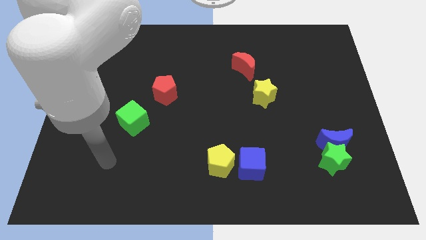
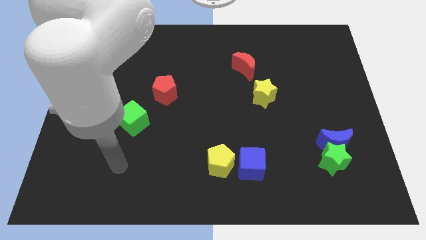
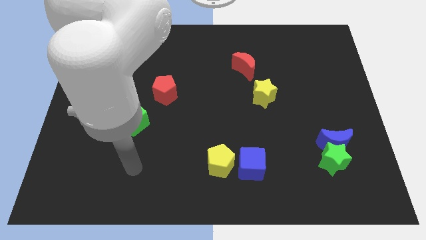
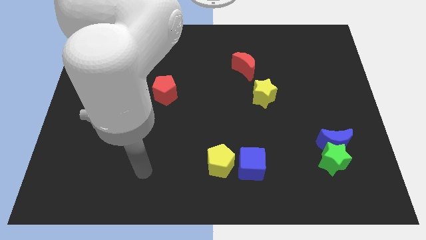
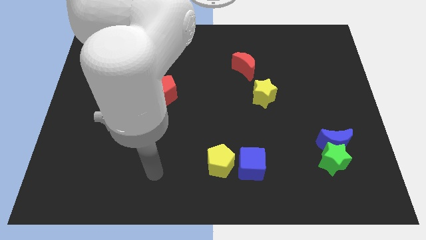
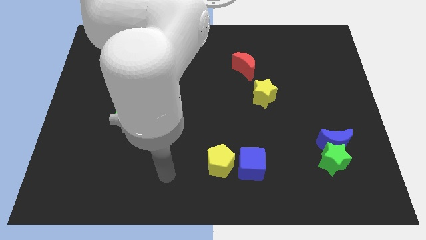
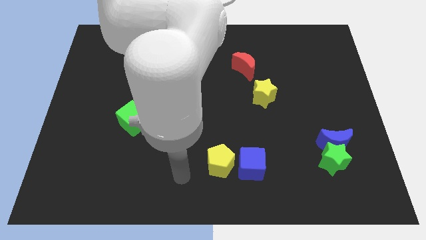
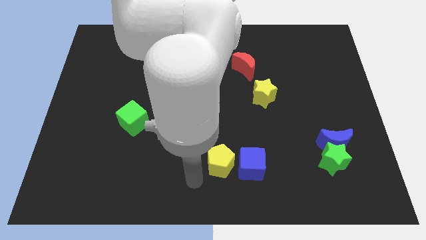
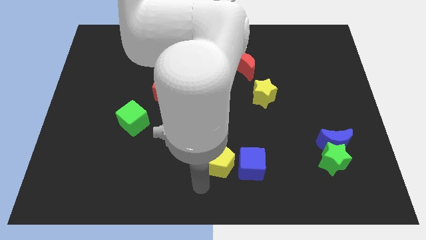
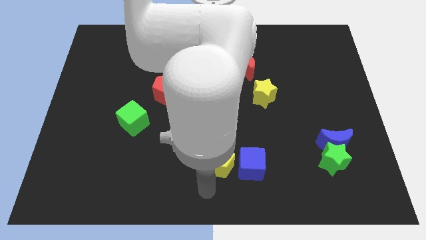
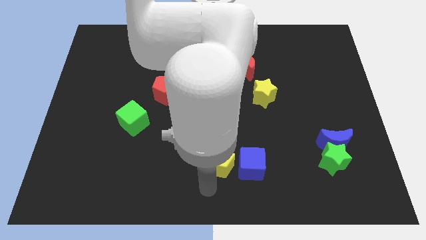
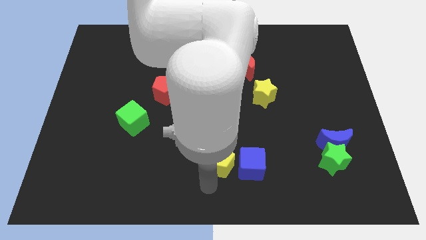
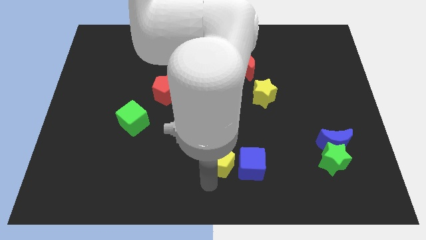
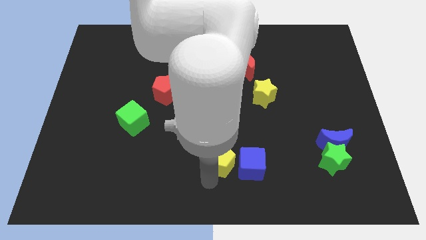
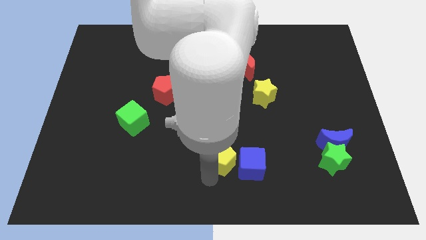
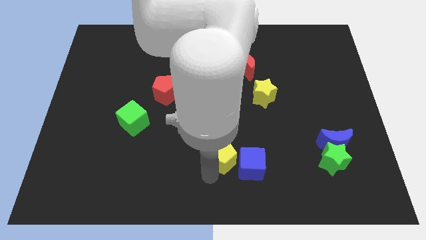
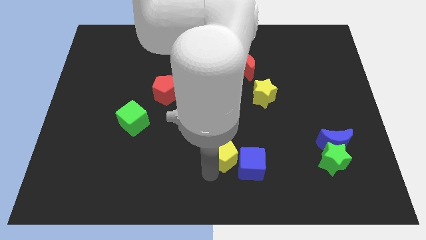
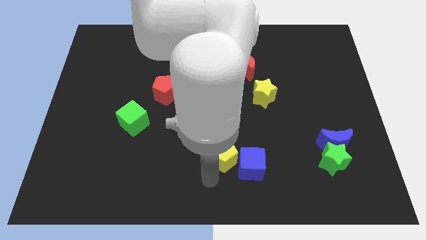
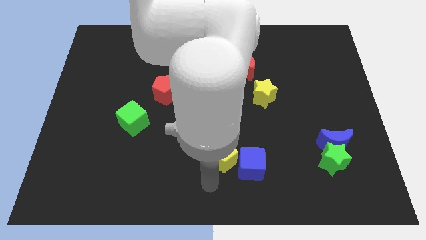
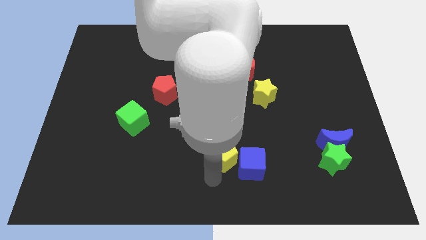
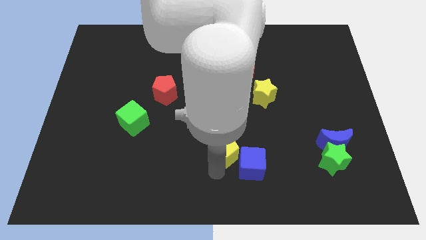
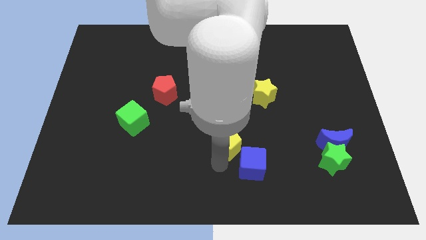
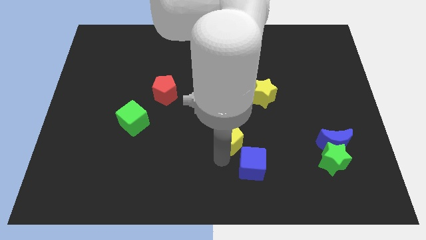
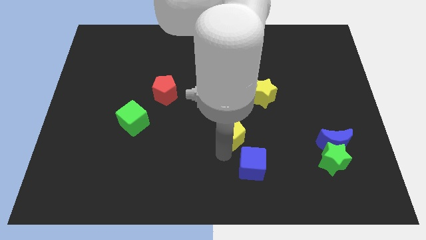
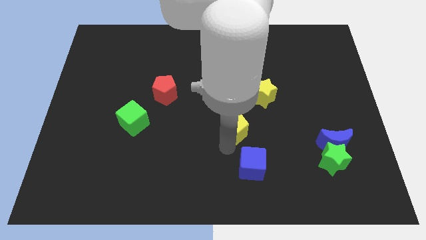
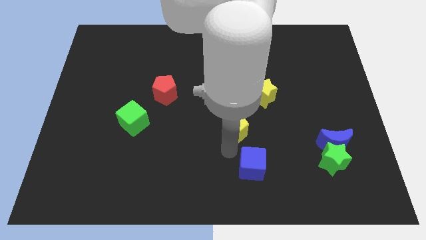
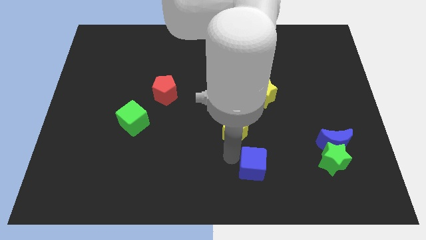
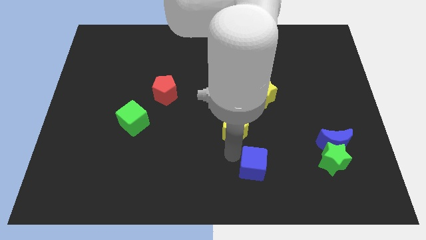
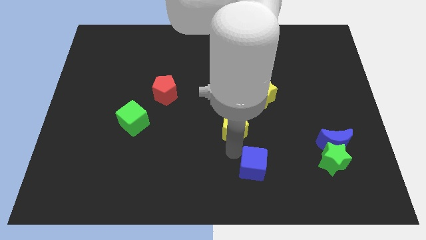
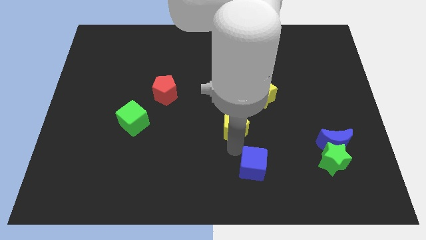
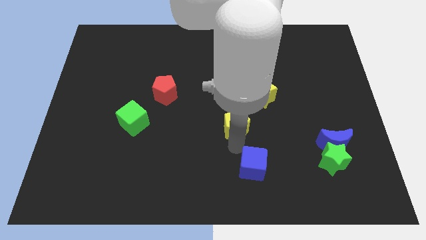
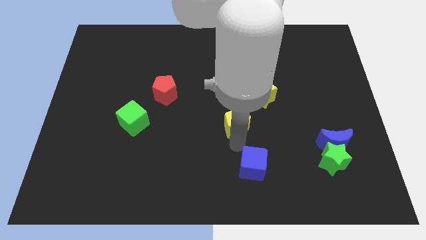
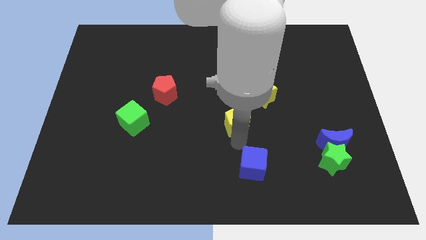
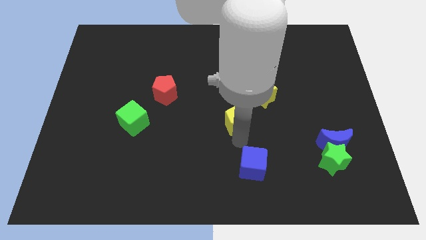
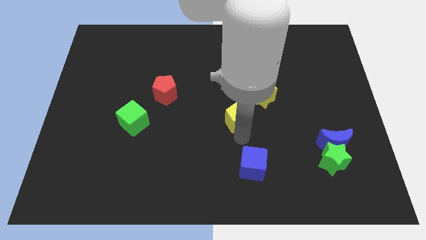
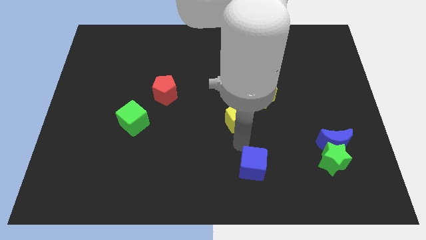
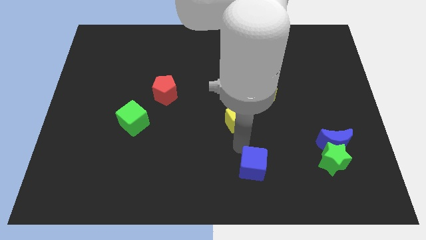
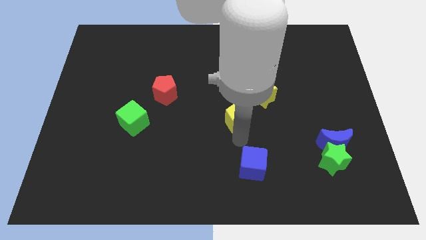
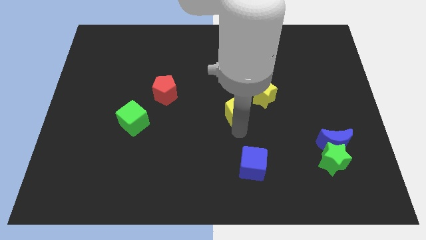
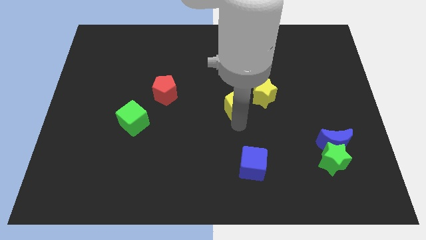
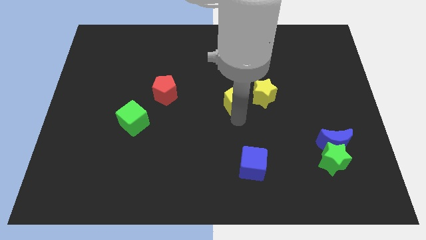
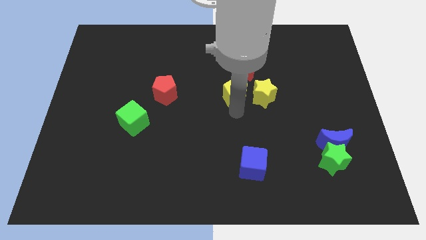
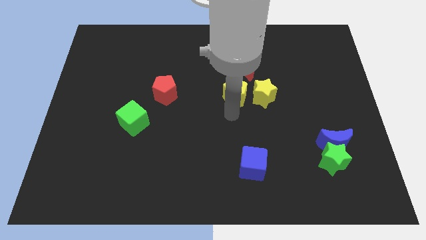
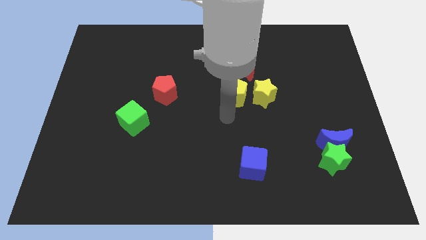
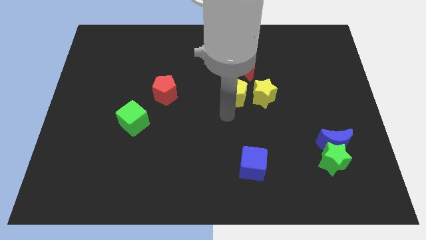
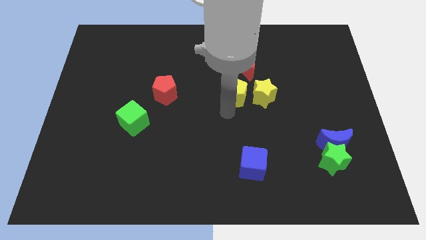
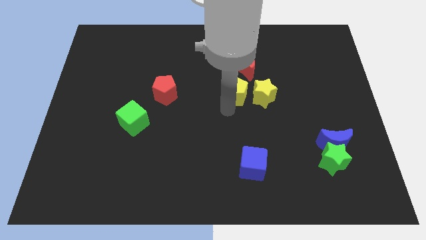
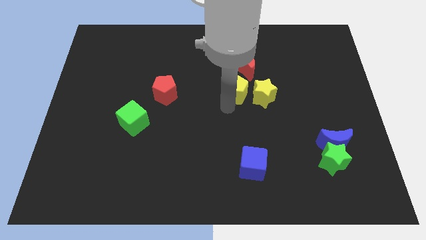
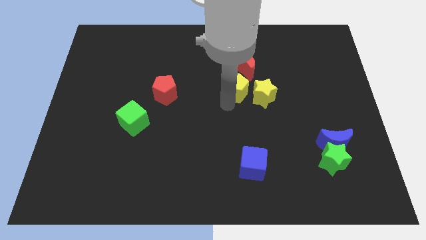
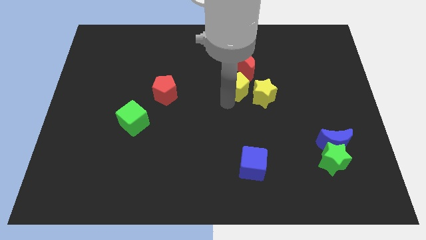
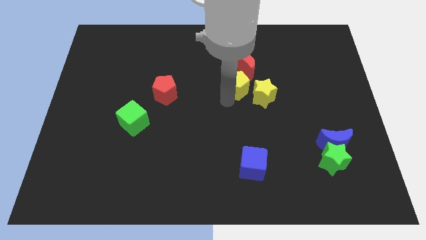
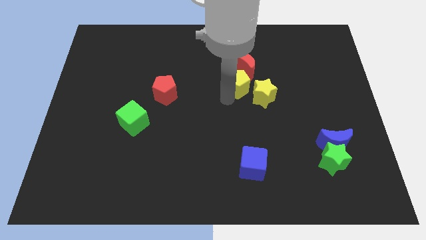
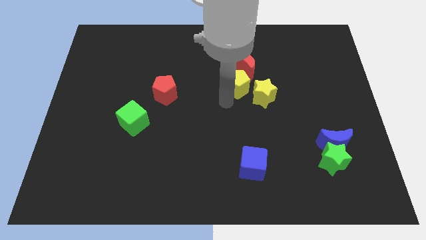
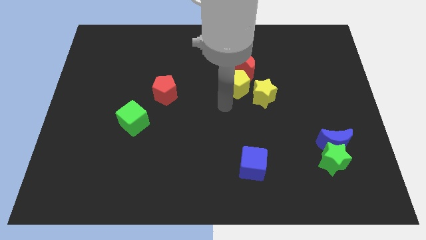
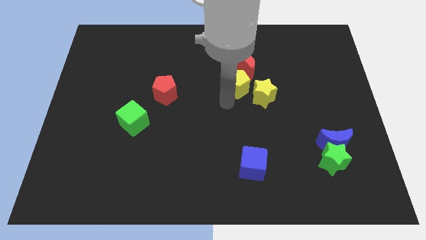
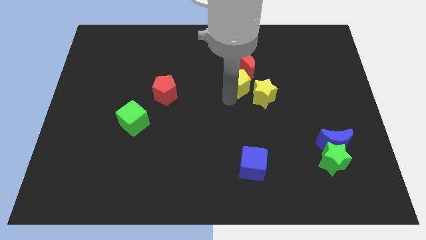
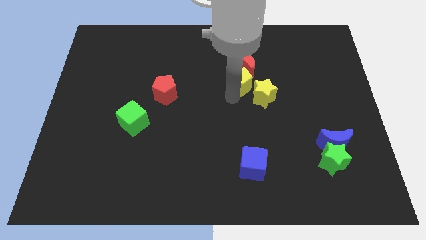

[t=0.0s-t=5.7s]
push the yellow pentagon close to the red moon

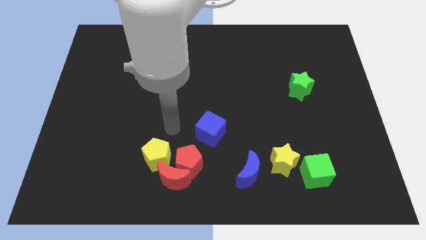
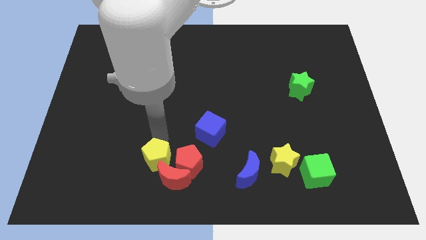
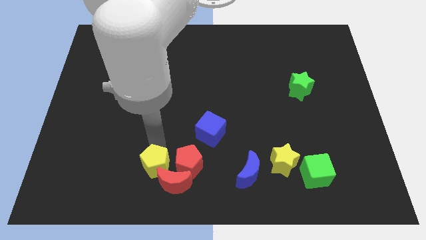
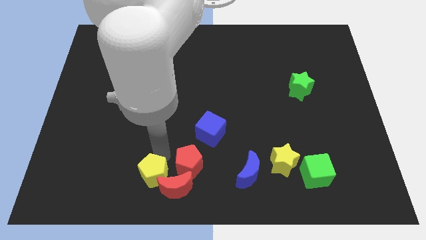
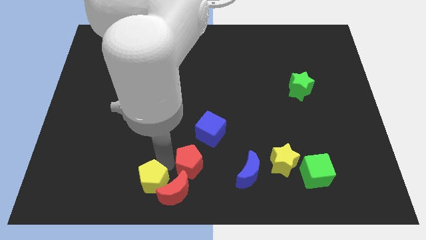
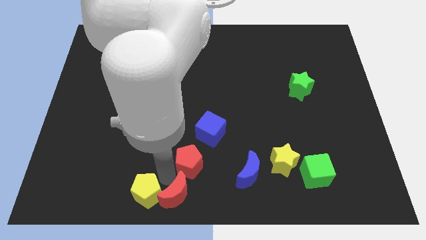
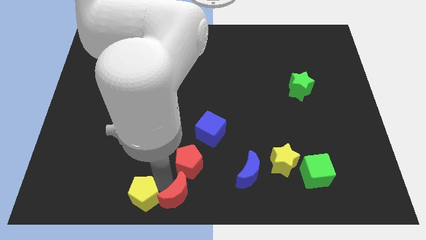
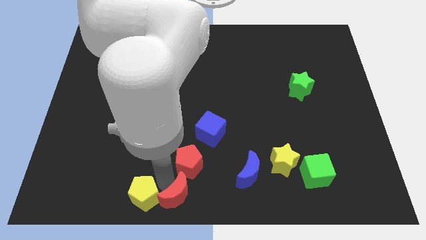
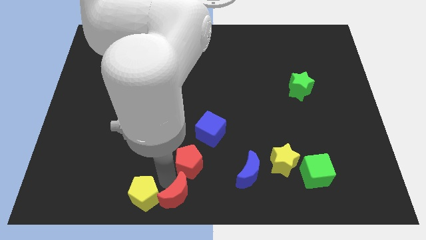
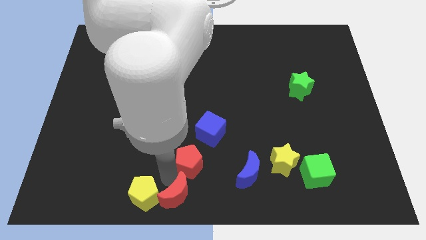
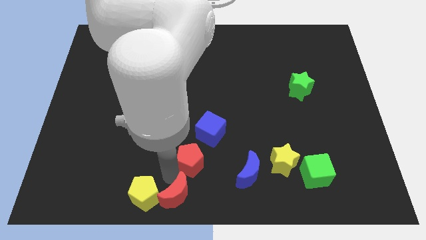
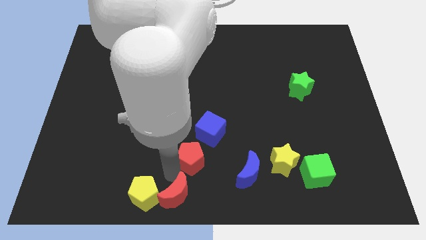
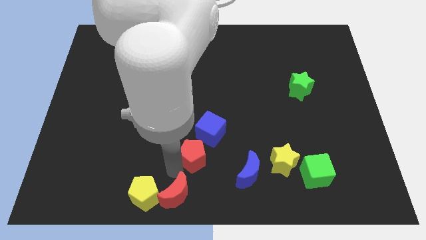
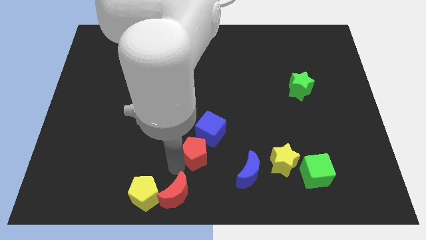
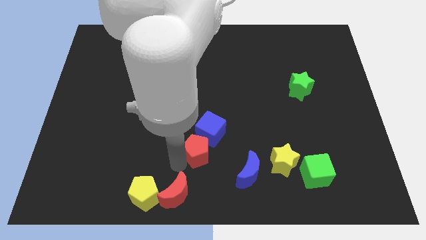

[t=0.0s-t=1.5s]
move the red pentagon to the blue cube
